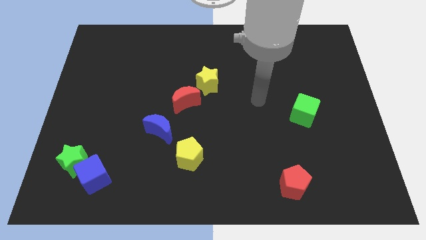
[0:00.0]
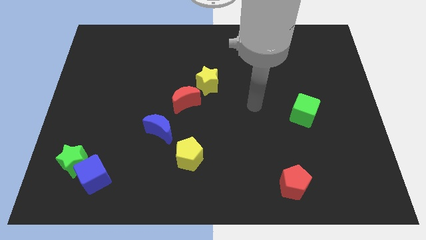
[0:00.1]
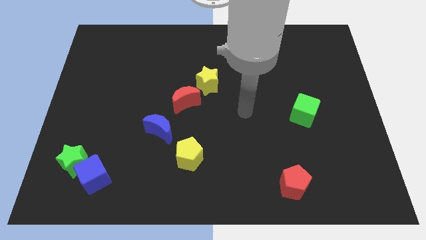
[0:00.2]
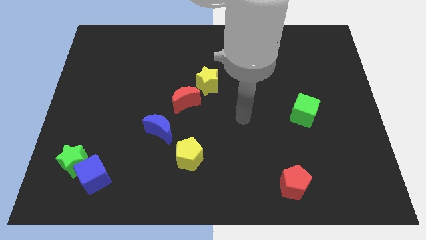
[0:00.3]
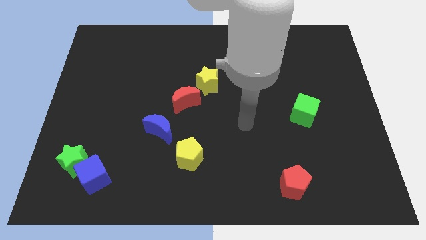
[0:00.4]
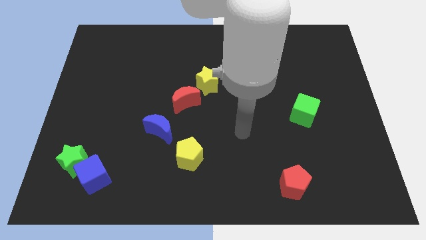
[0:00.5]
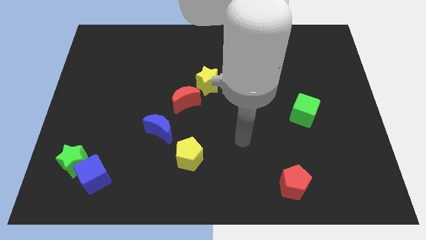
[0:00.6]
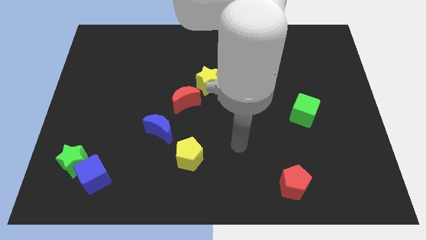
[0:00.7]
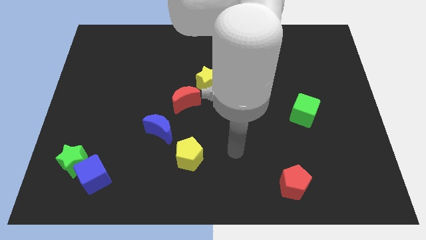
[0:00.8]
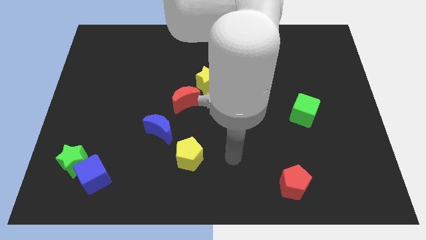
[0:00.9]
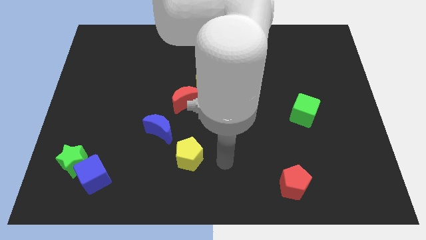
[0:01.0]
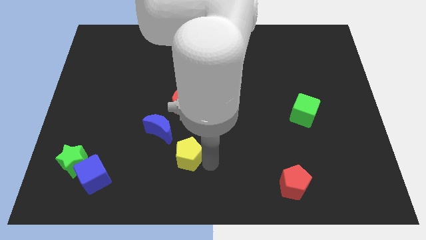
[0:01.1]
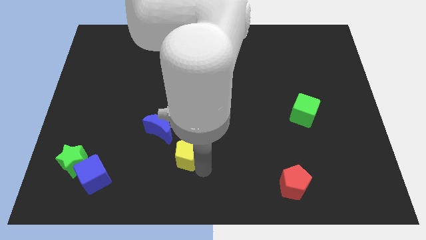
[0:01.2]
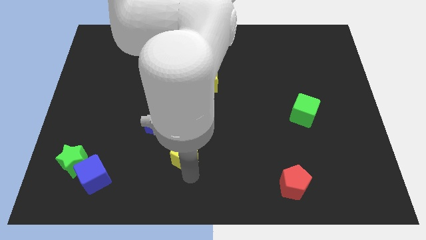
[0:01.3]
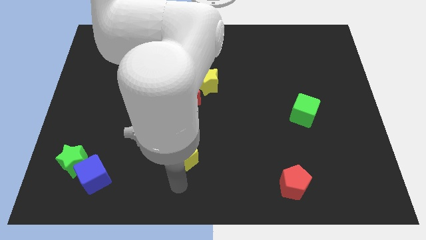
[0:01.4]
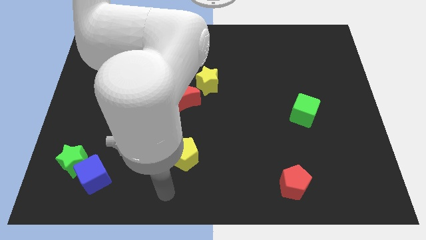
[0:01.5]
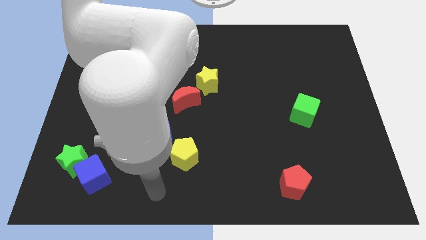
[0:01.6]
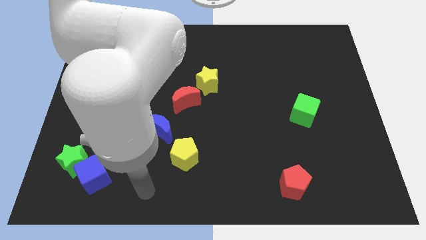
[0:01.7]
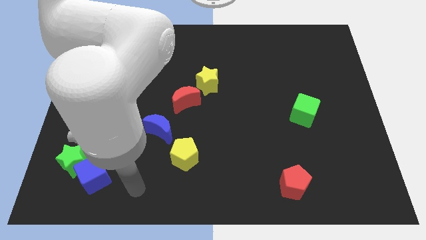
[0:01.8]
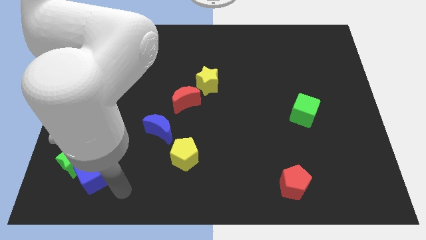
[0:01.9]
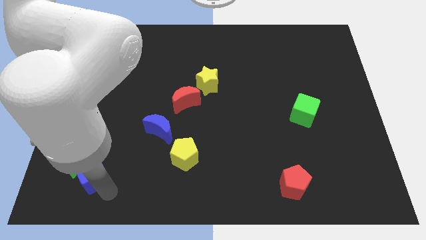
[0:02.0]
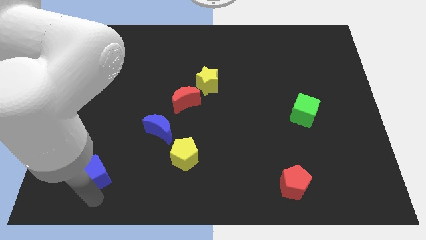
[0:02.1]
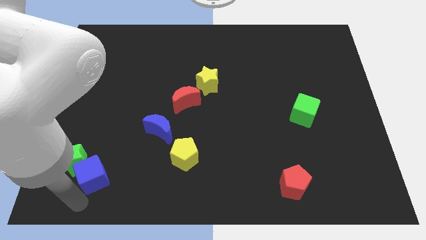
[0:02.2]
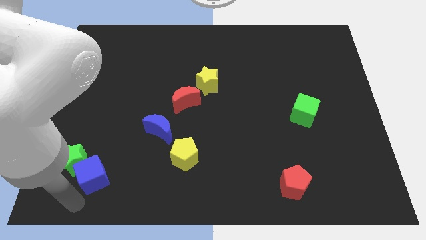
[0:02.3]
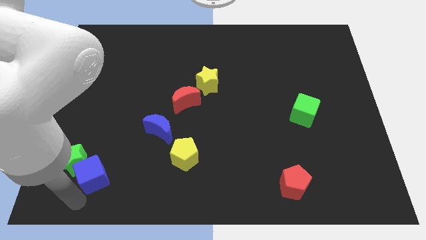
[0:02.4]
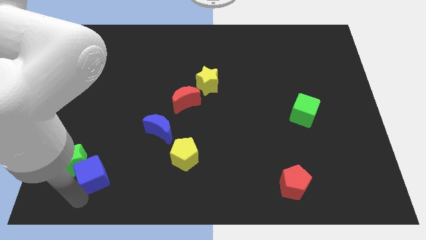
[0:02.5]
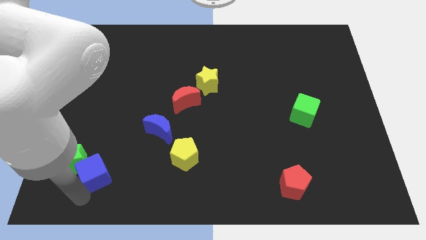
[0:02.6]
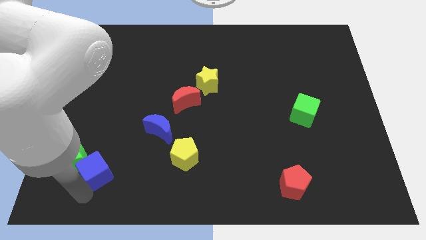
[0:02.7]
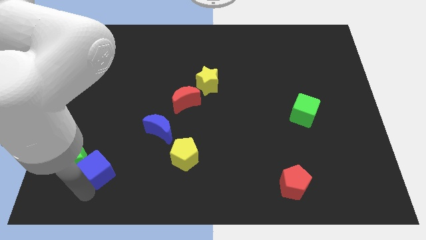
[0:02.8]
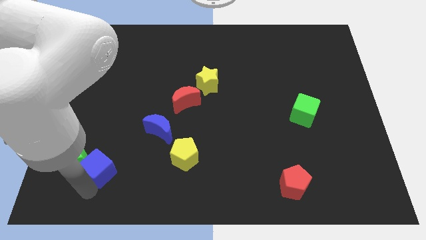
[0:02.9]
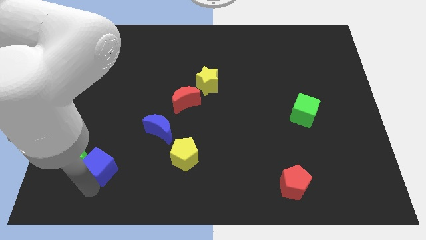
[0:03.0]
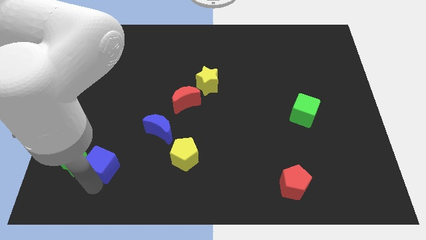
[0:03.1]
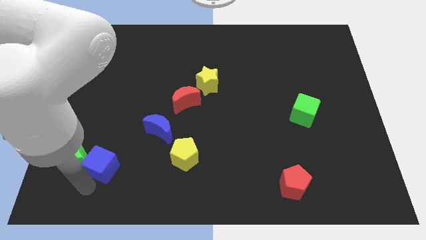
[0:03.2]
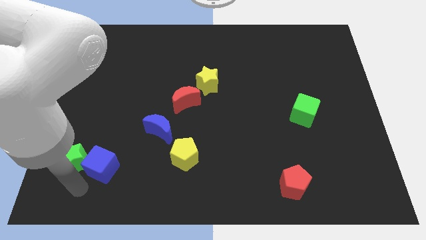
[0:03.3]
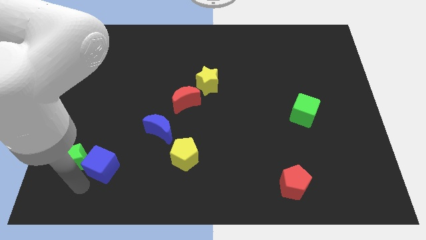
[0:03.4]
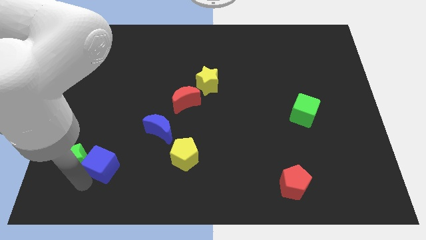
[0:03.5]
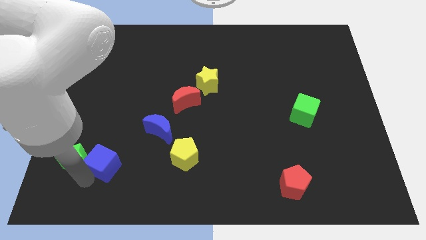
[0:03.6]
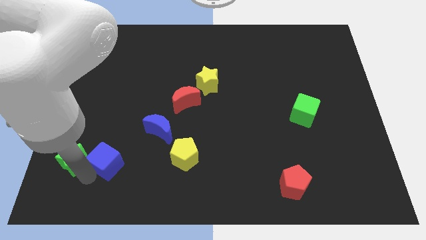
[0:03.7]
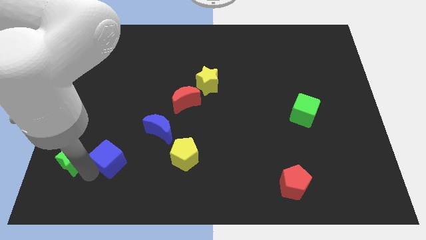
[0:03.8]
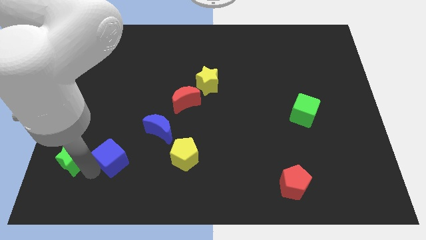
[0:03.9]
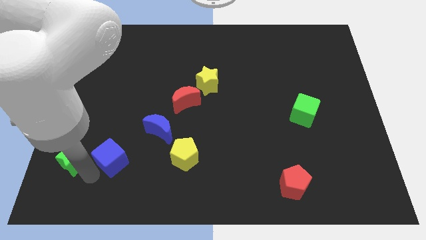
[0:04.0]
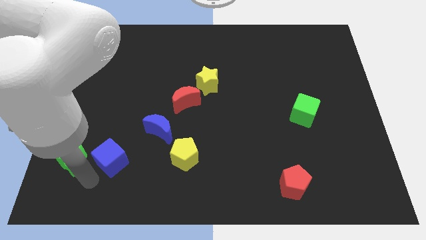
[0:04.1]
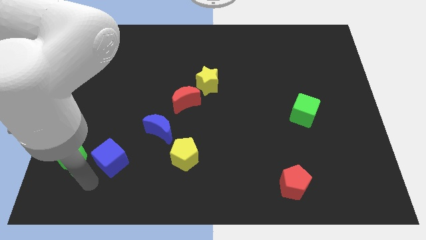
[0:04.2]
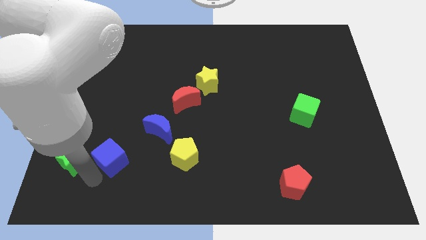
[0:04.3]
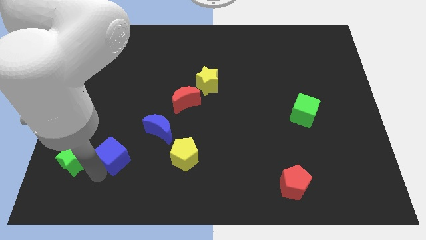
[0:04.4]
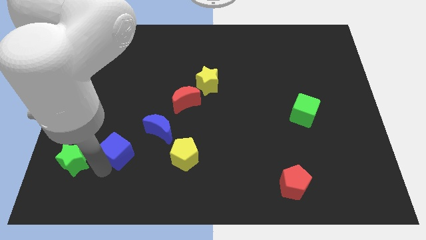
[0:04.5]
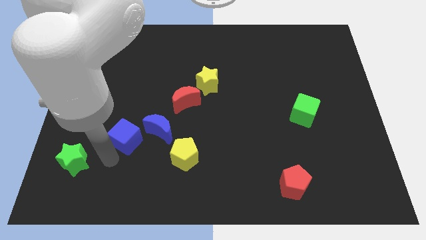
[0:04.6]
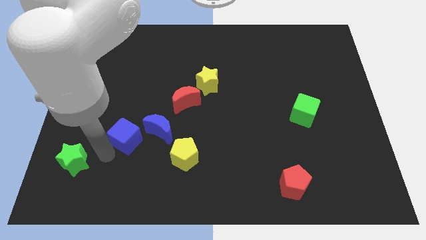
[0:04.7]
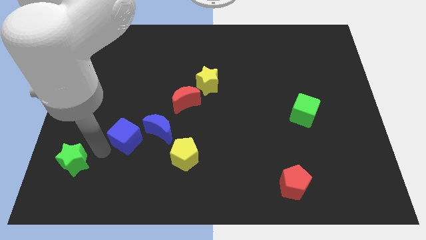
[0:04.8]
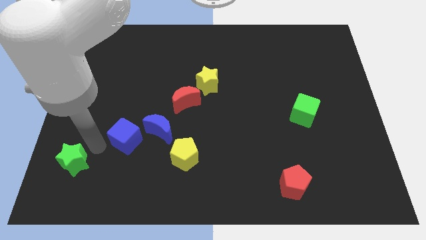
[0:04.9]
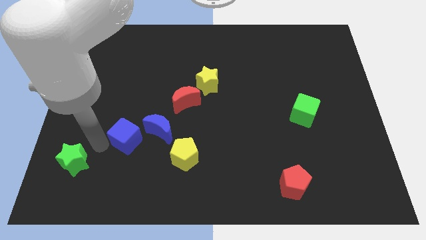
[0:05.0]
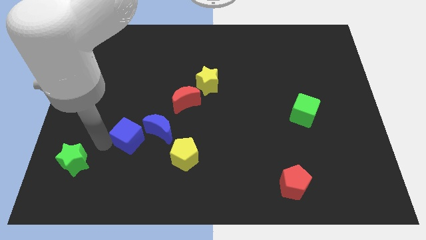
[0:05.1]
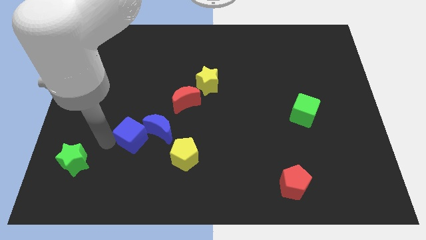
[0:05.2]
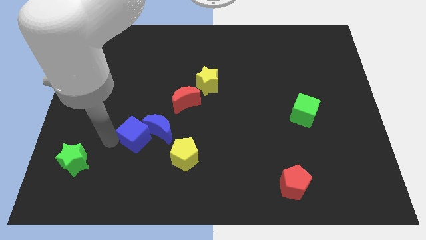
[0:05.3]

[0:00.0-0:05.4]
slide the blue cube close to the blue moon

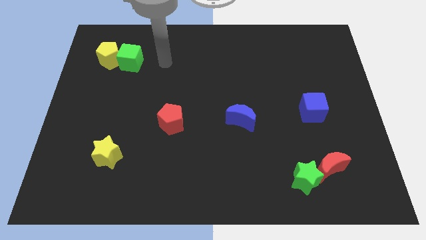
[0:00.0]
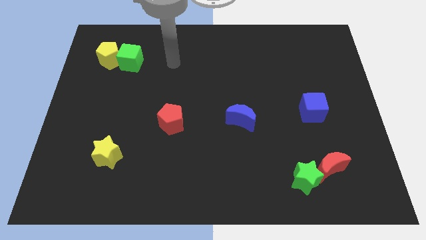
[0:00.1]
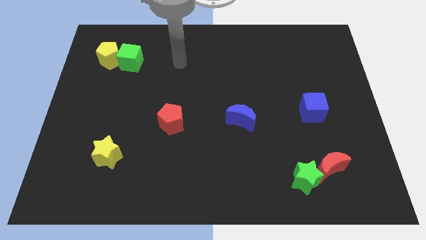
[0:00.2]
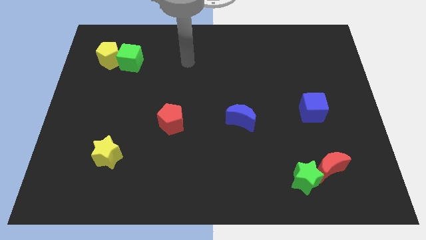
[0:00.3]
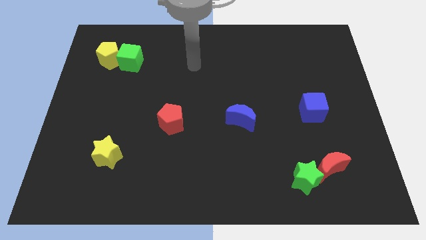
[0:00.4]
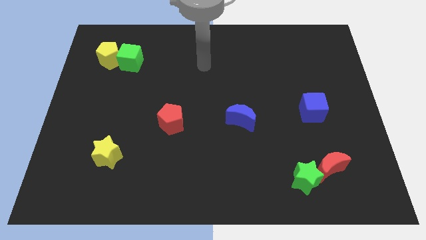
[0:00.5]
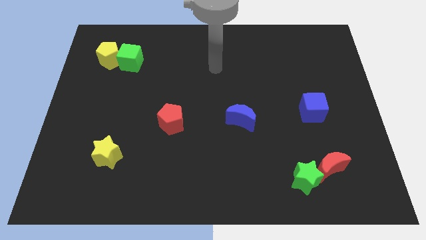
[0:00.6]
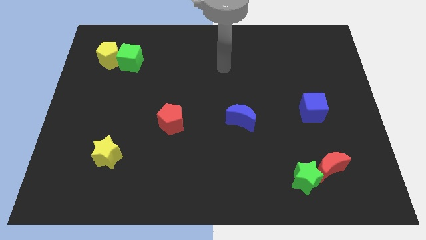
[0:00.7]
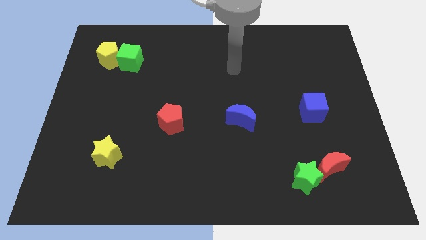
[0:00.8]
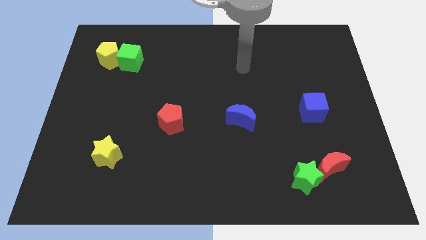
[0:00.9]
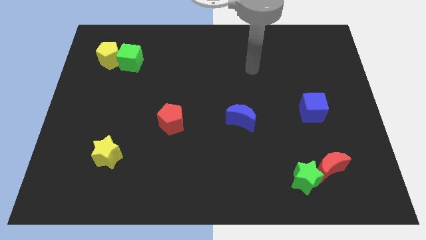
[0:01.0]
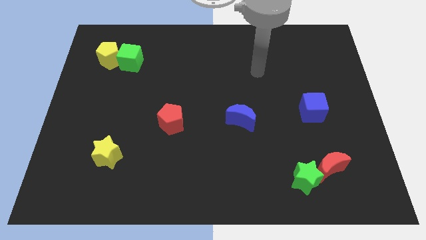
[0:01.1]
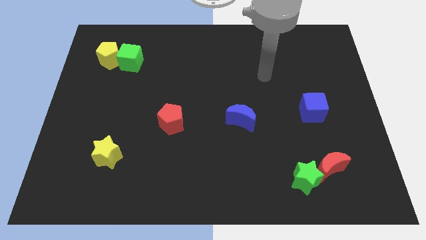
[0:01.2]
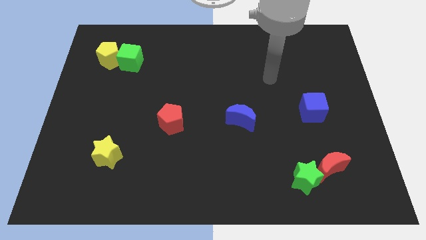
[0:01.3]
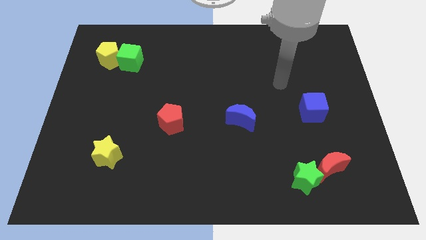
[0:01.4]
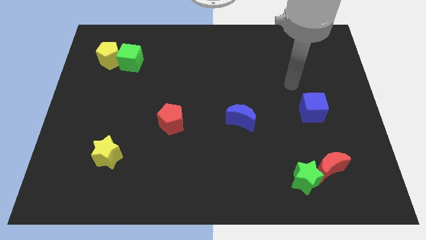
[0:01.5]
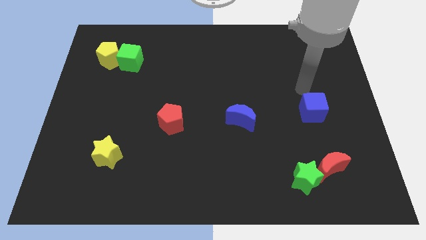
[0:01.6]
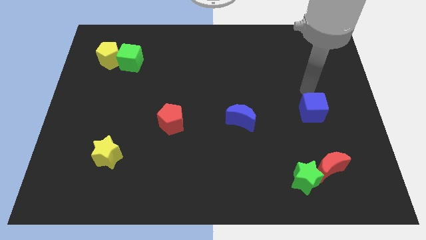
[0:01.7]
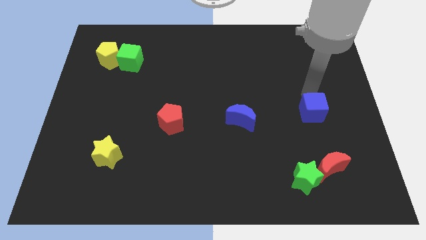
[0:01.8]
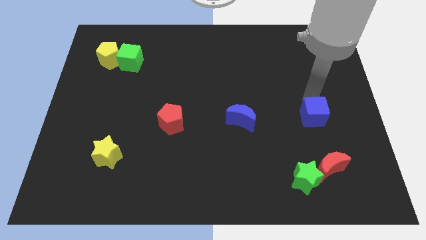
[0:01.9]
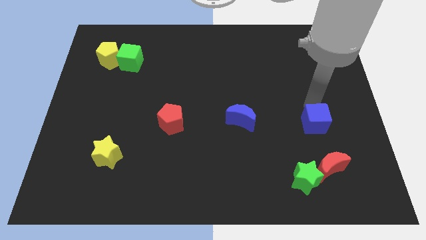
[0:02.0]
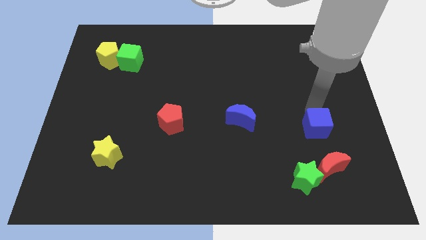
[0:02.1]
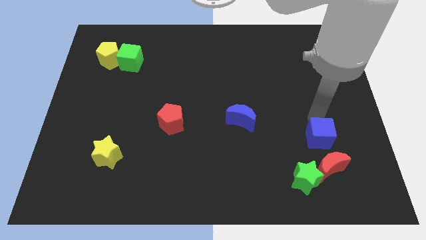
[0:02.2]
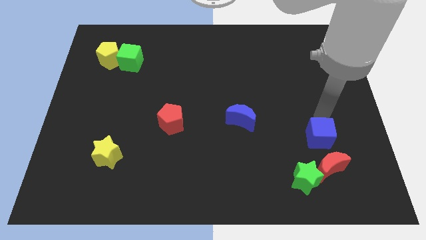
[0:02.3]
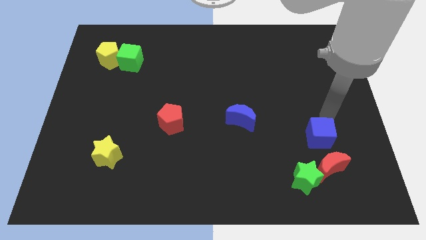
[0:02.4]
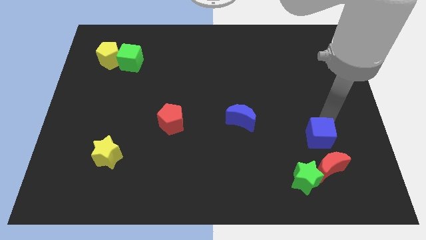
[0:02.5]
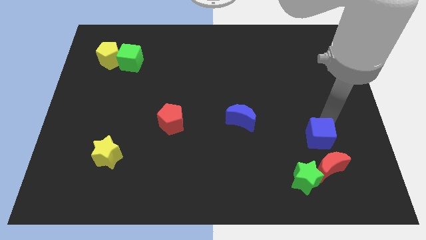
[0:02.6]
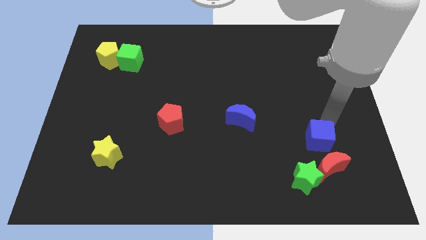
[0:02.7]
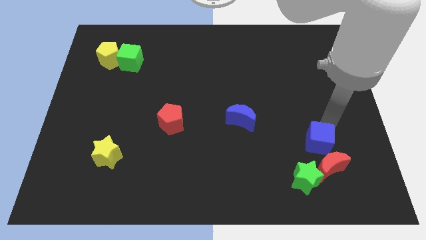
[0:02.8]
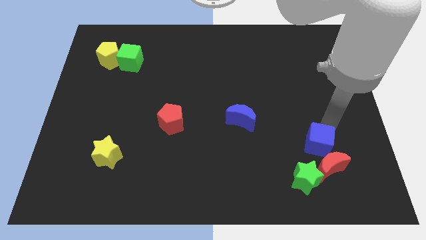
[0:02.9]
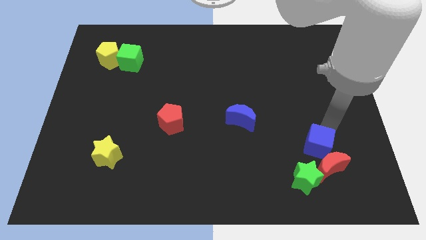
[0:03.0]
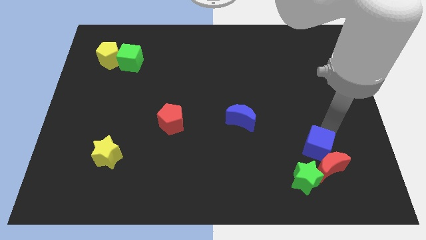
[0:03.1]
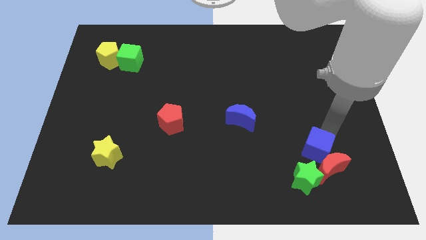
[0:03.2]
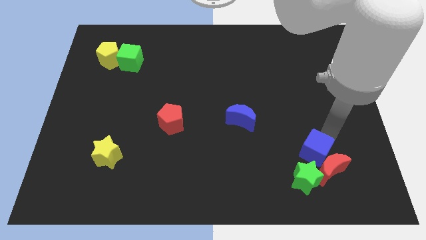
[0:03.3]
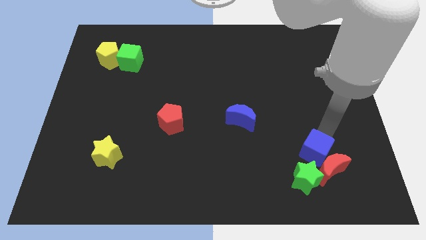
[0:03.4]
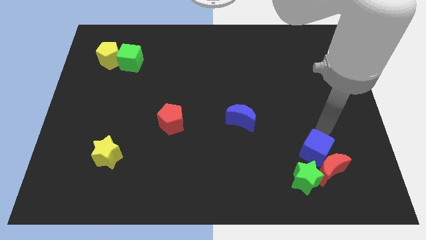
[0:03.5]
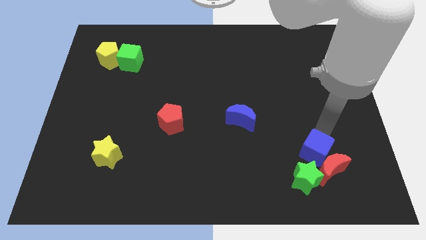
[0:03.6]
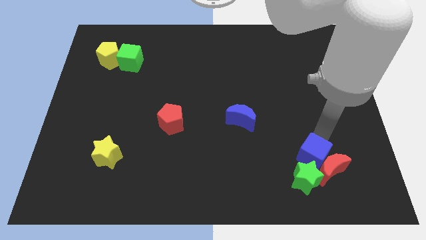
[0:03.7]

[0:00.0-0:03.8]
push the blue cube towards the green star
